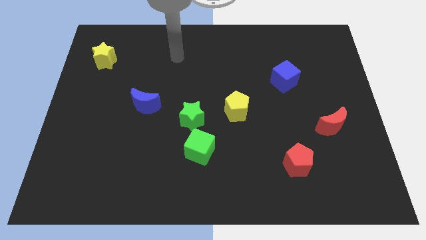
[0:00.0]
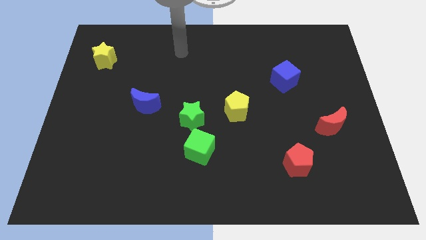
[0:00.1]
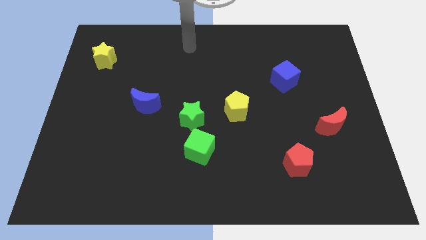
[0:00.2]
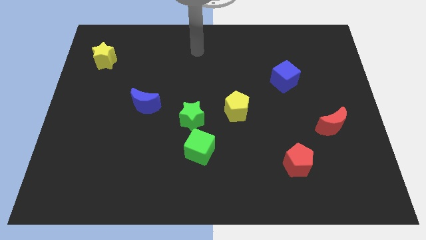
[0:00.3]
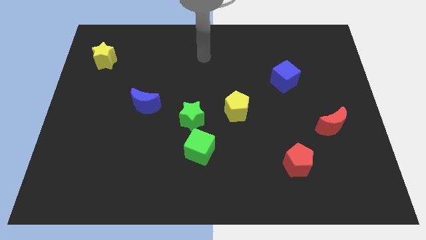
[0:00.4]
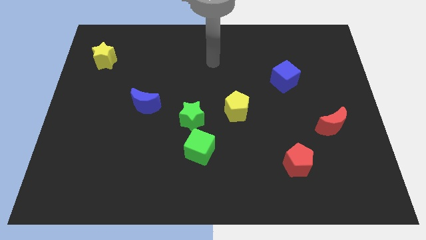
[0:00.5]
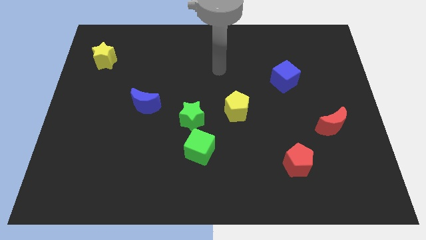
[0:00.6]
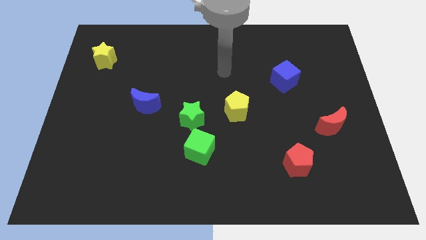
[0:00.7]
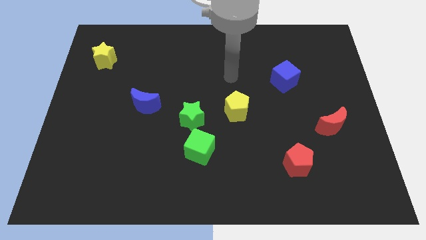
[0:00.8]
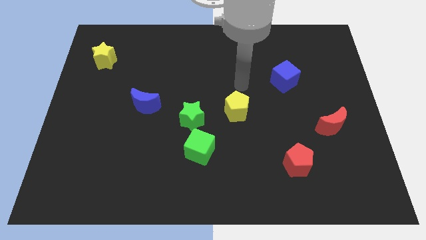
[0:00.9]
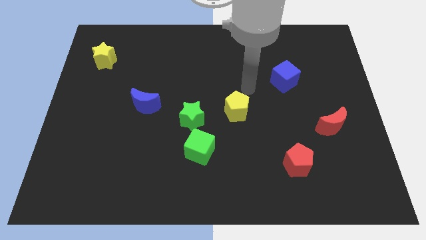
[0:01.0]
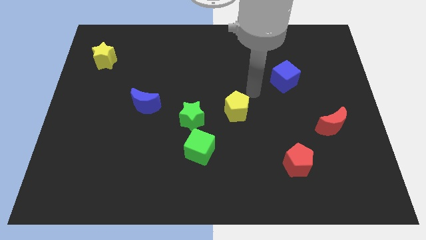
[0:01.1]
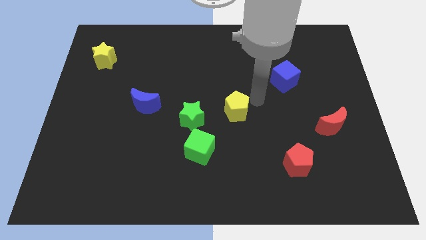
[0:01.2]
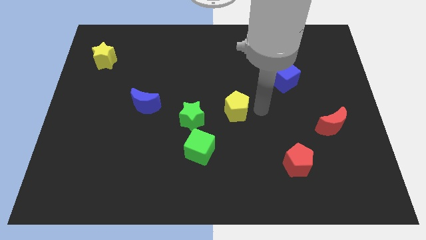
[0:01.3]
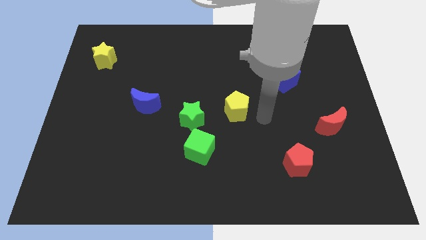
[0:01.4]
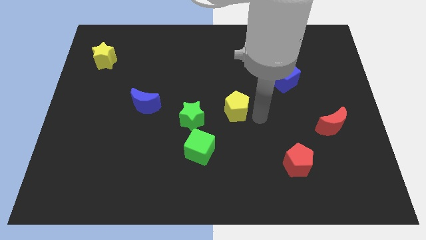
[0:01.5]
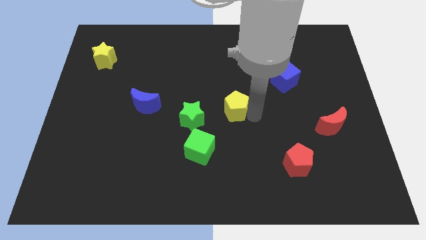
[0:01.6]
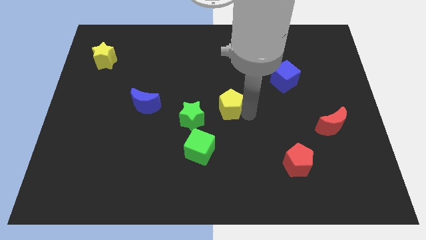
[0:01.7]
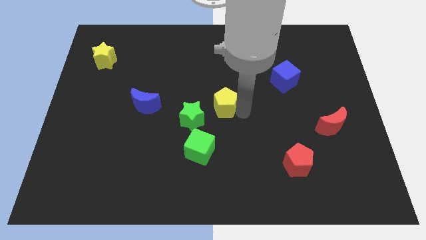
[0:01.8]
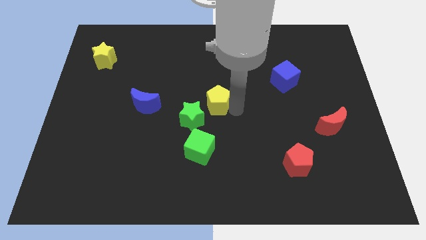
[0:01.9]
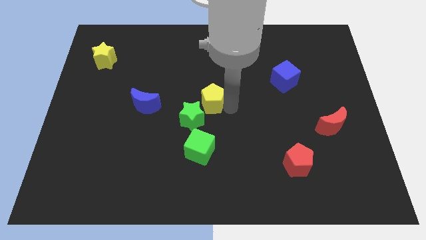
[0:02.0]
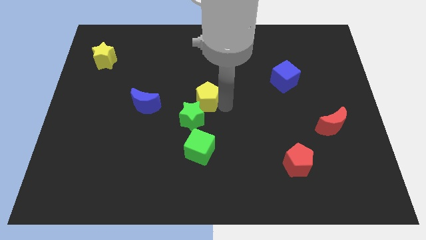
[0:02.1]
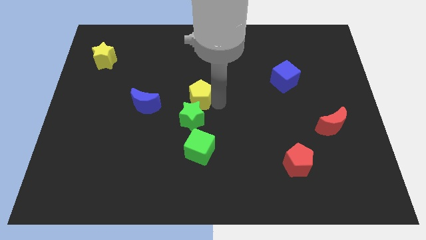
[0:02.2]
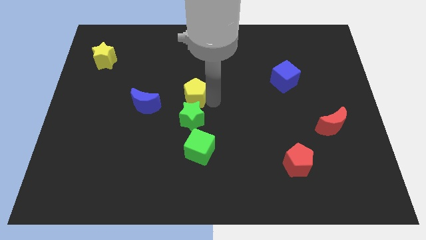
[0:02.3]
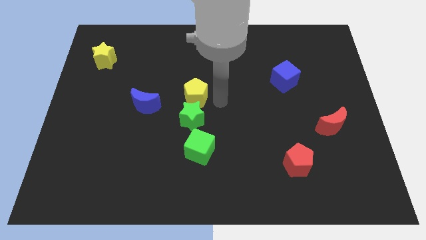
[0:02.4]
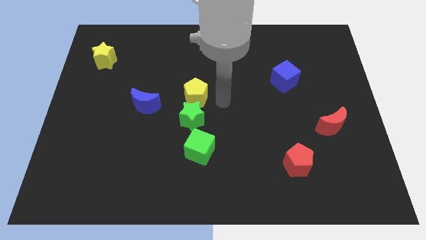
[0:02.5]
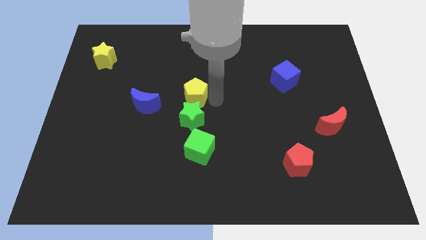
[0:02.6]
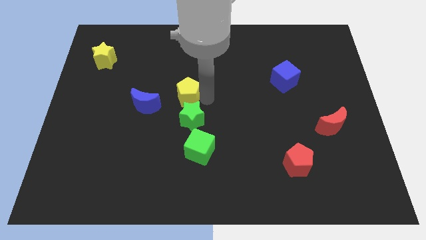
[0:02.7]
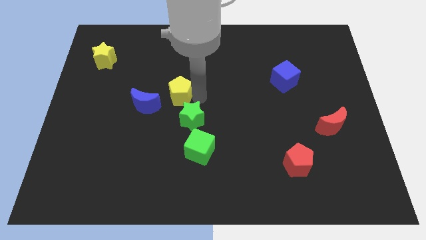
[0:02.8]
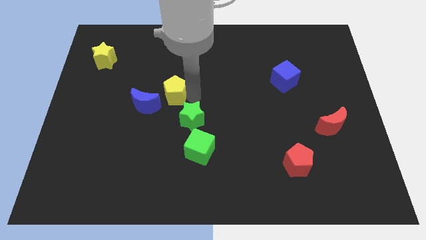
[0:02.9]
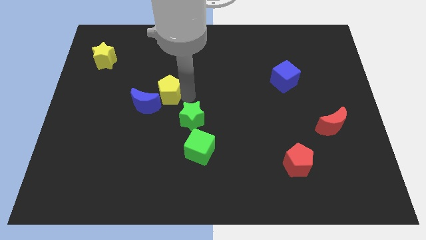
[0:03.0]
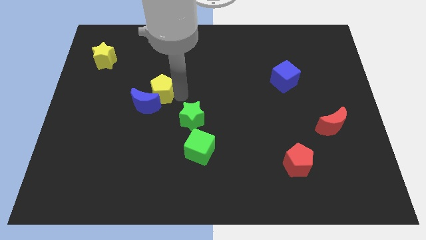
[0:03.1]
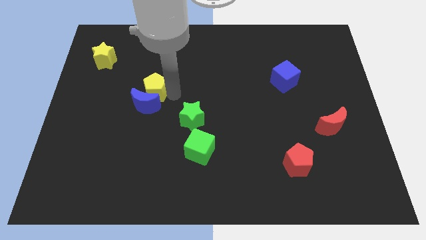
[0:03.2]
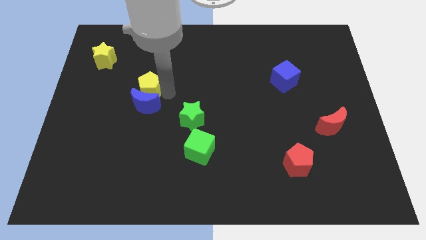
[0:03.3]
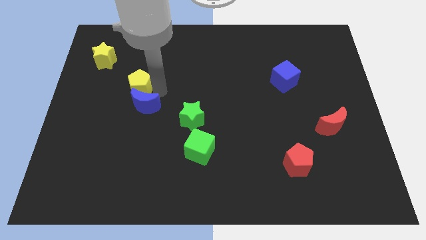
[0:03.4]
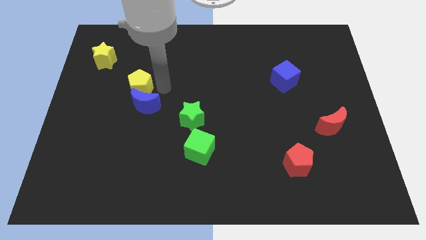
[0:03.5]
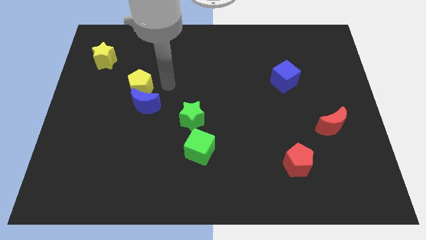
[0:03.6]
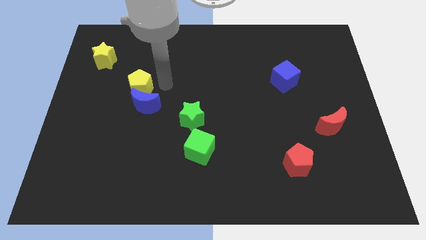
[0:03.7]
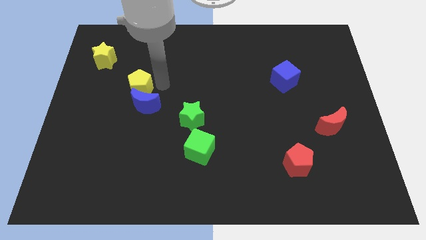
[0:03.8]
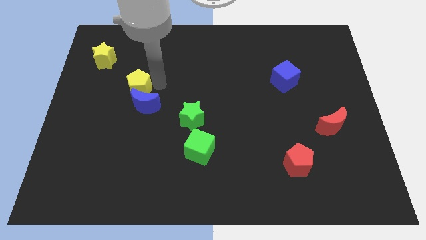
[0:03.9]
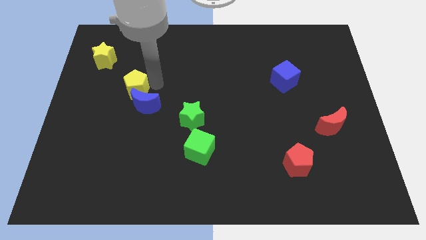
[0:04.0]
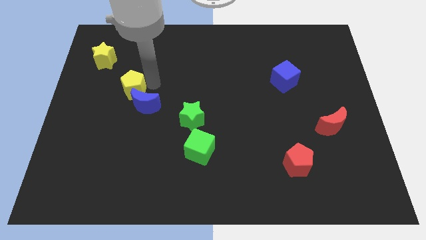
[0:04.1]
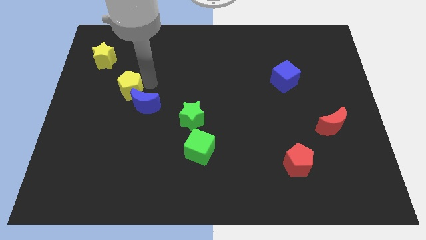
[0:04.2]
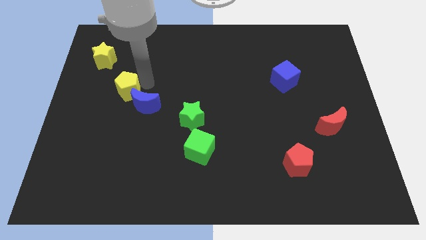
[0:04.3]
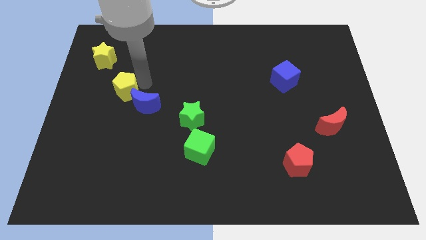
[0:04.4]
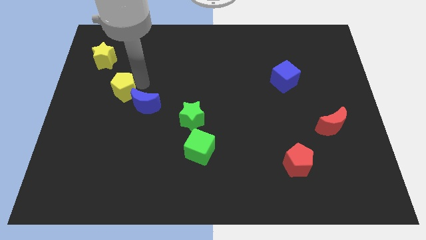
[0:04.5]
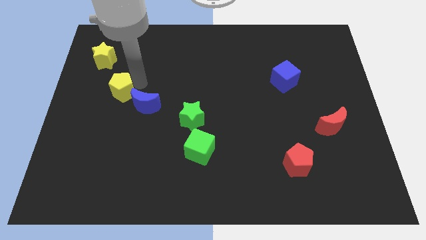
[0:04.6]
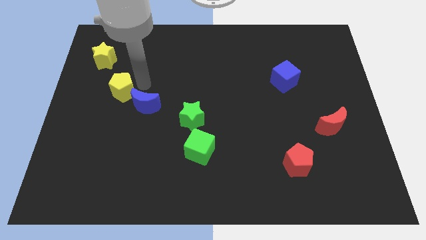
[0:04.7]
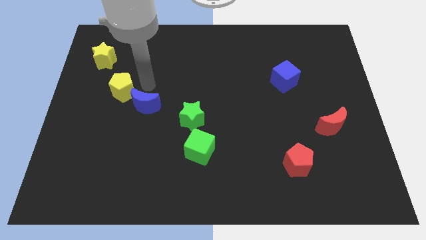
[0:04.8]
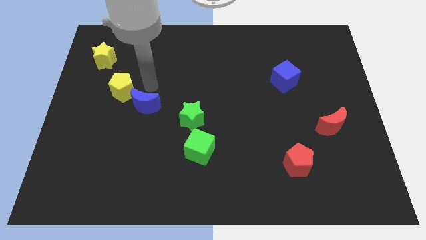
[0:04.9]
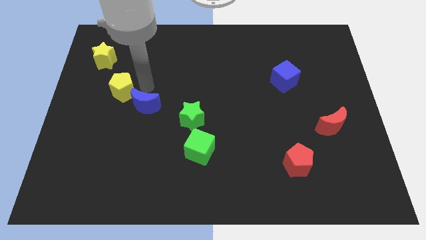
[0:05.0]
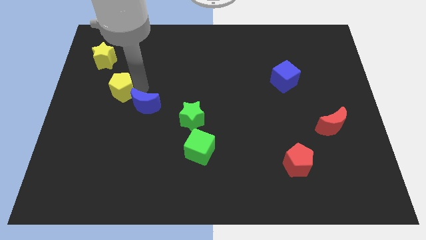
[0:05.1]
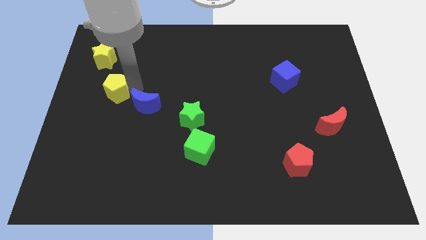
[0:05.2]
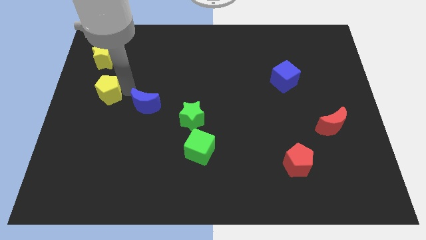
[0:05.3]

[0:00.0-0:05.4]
move the yellow pentagon to the center left

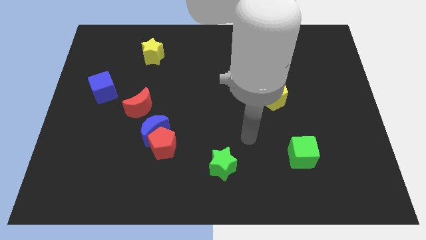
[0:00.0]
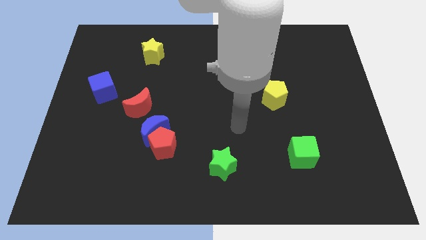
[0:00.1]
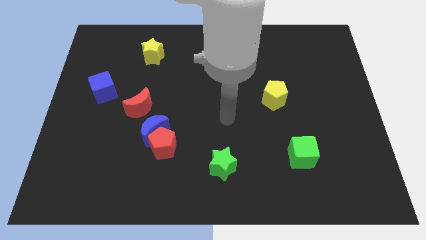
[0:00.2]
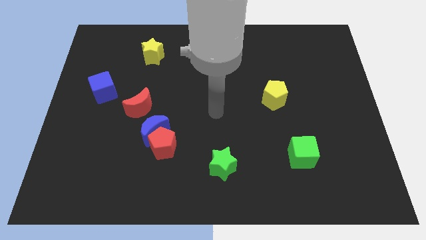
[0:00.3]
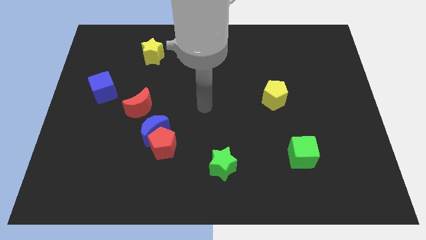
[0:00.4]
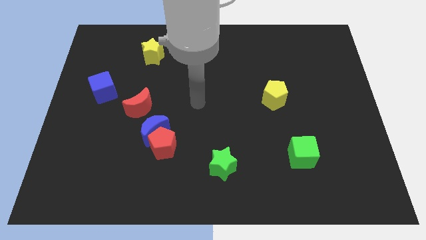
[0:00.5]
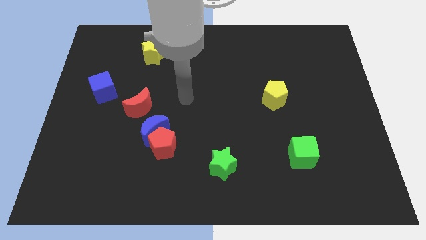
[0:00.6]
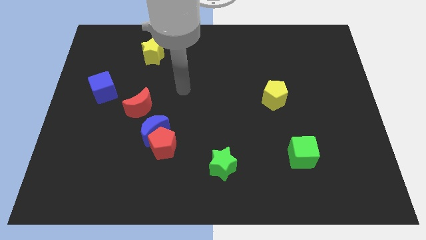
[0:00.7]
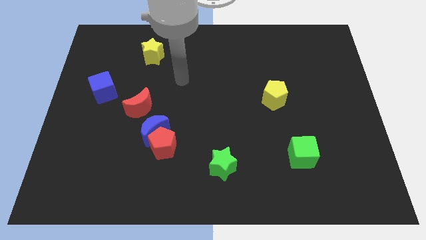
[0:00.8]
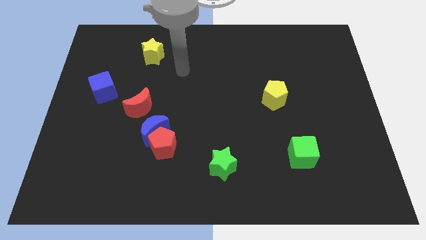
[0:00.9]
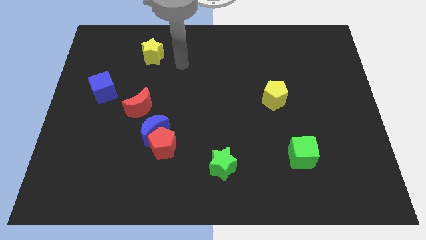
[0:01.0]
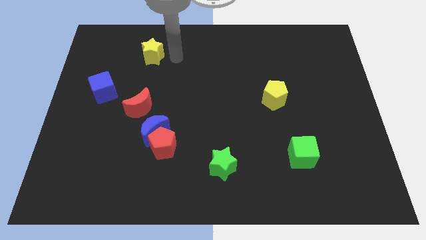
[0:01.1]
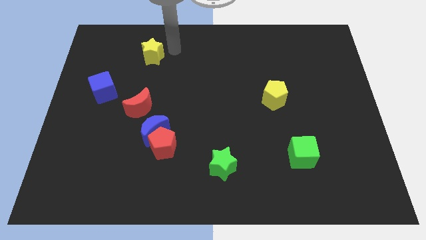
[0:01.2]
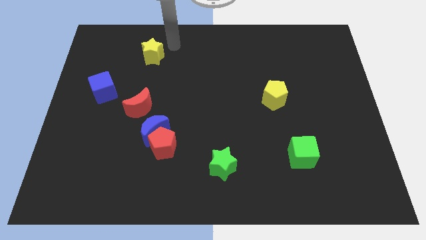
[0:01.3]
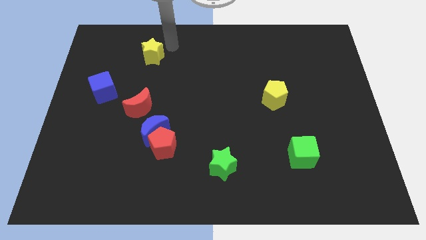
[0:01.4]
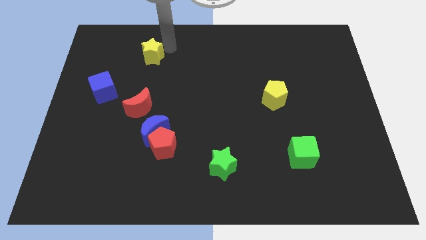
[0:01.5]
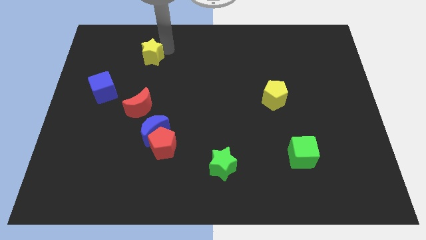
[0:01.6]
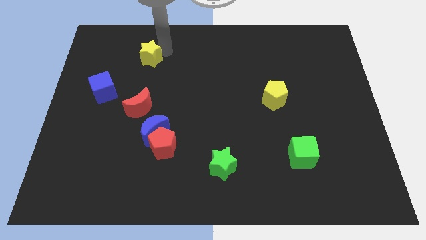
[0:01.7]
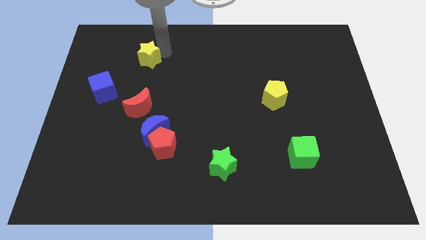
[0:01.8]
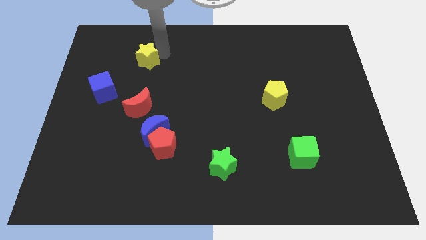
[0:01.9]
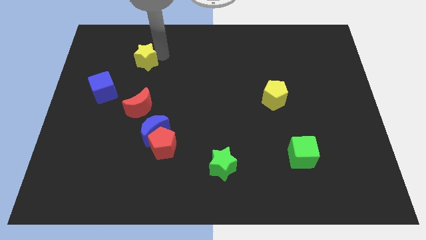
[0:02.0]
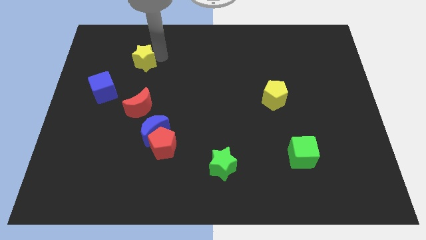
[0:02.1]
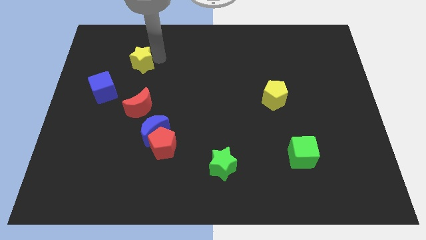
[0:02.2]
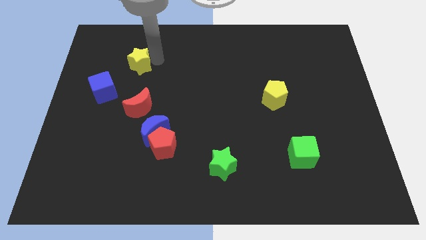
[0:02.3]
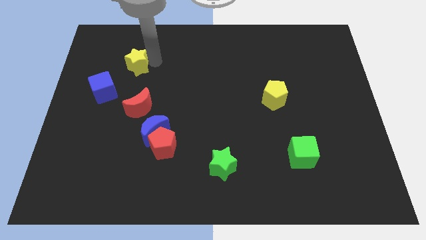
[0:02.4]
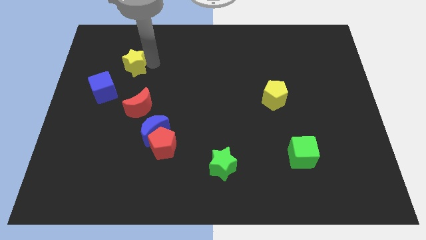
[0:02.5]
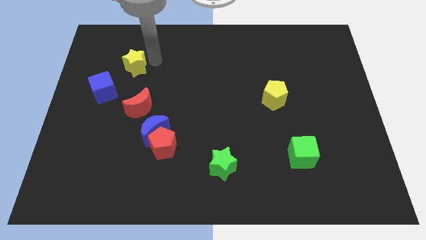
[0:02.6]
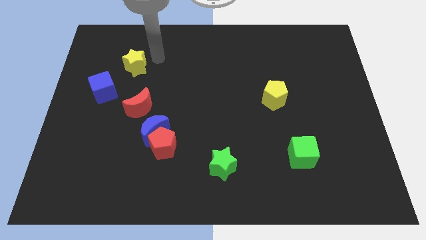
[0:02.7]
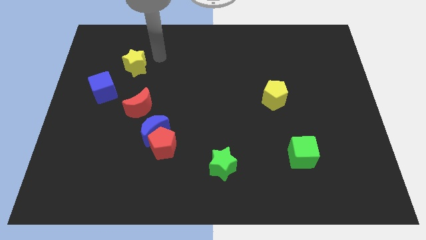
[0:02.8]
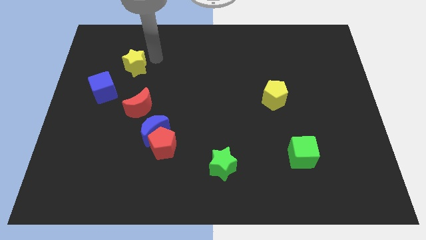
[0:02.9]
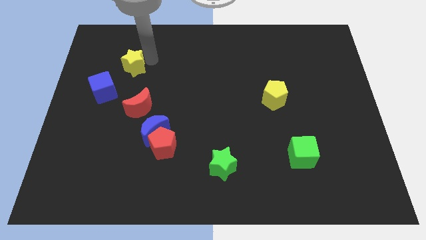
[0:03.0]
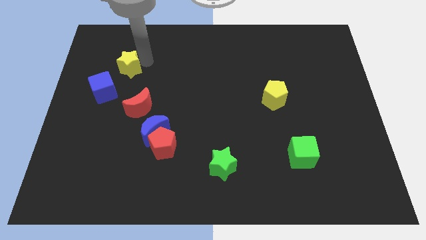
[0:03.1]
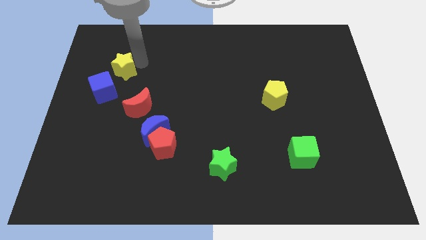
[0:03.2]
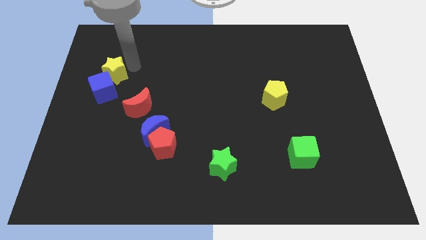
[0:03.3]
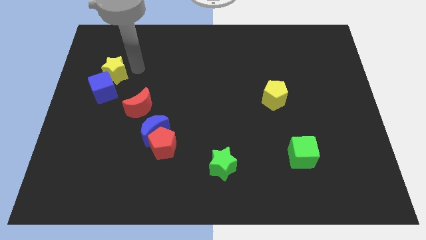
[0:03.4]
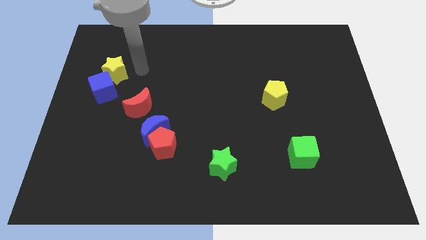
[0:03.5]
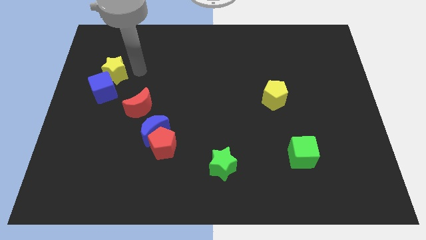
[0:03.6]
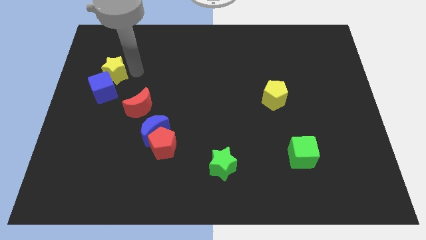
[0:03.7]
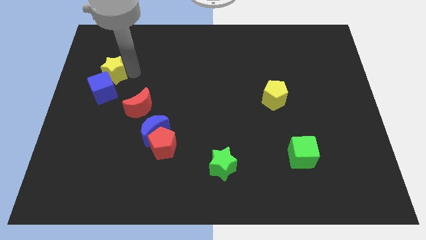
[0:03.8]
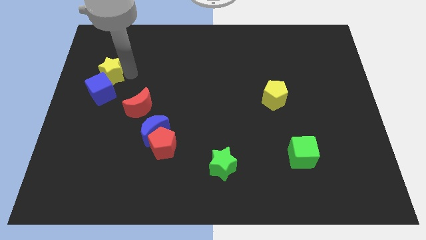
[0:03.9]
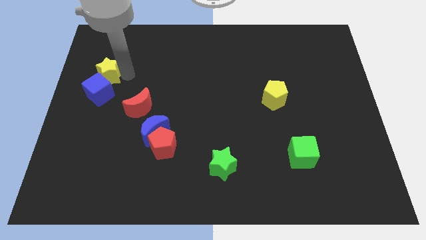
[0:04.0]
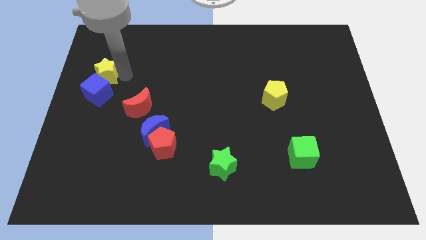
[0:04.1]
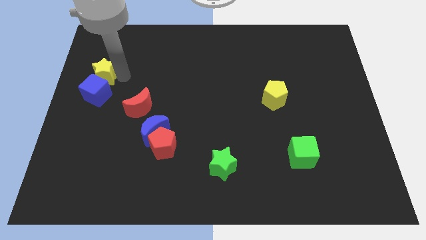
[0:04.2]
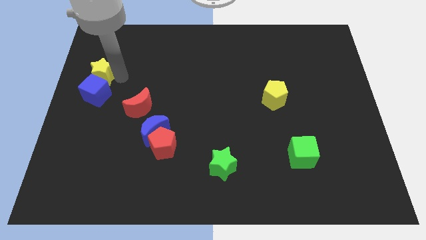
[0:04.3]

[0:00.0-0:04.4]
push the yellow star to the left side of the board
